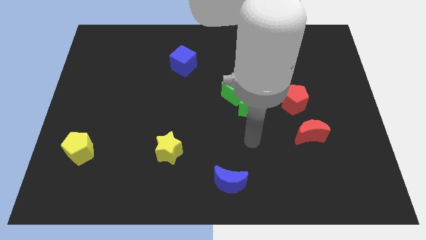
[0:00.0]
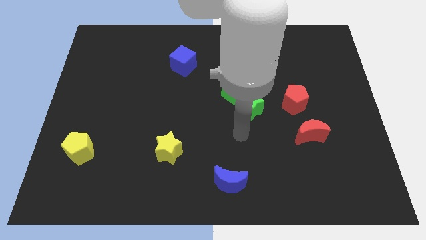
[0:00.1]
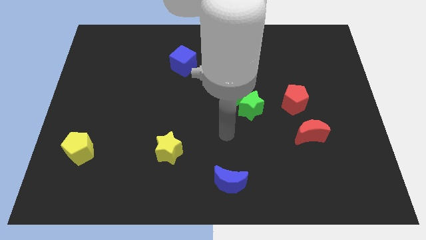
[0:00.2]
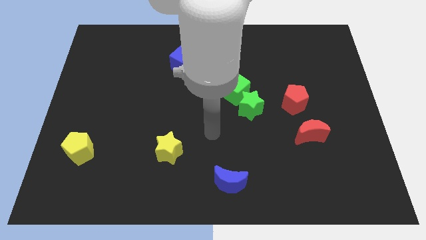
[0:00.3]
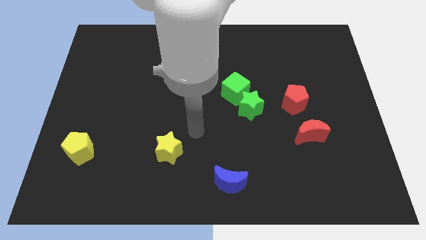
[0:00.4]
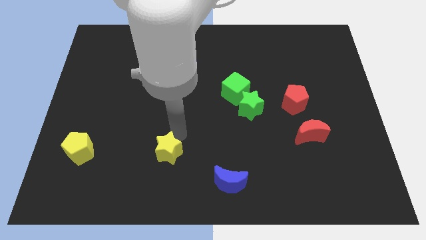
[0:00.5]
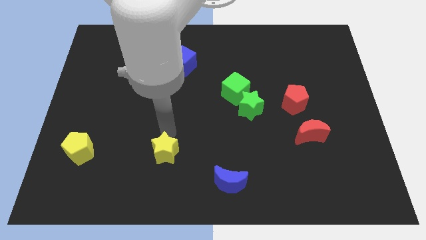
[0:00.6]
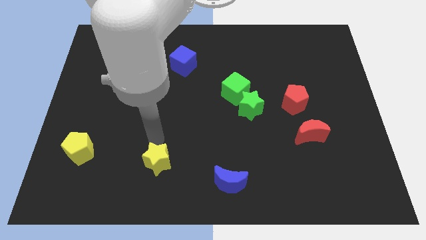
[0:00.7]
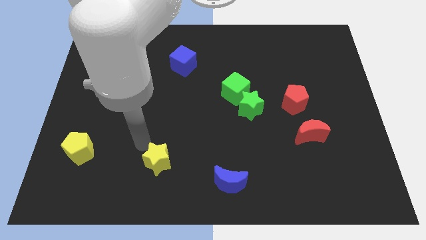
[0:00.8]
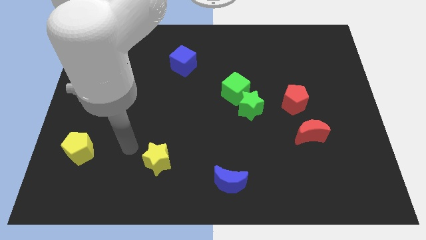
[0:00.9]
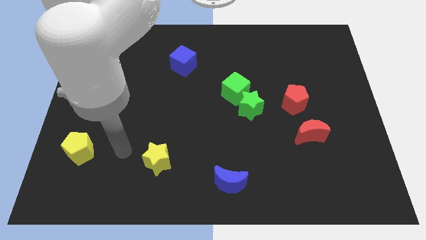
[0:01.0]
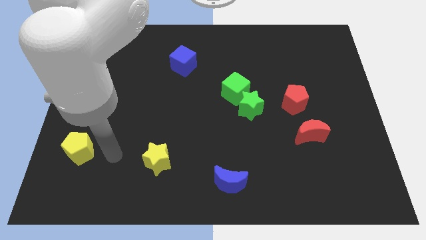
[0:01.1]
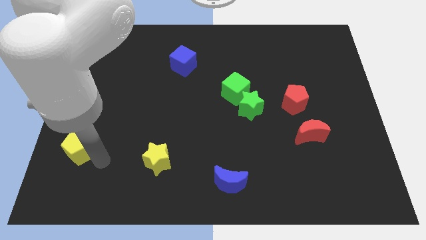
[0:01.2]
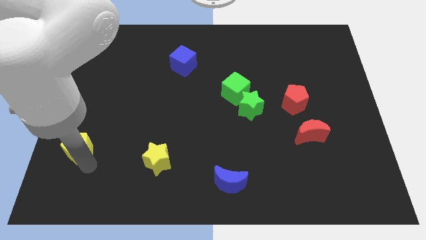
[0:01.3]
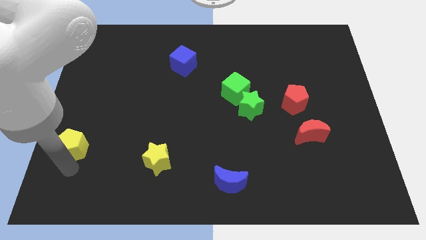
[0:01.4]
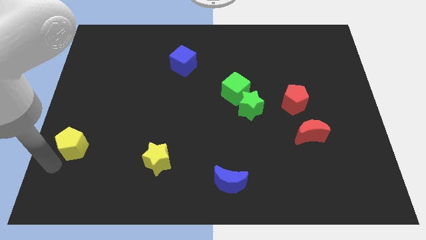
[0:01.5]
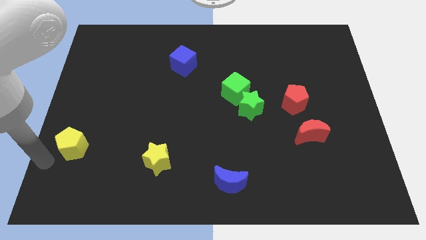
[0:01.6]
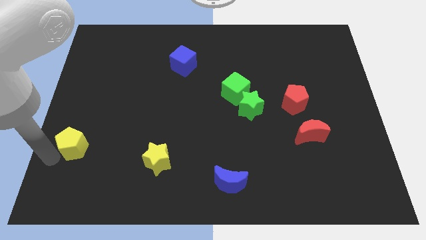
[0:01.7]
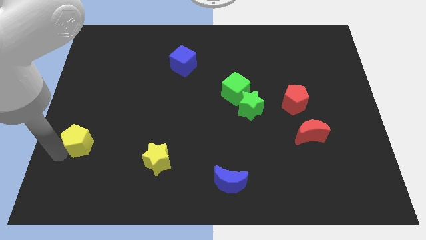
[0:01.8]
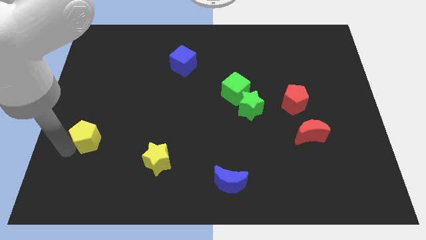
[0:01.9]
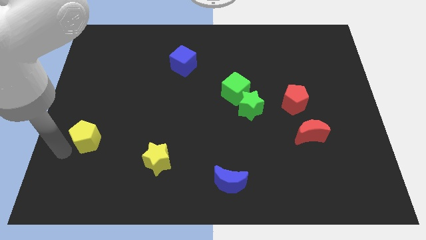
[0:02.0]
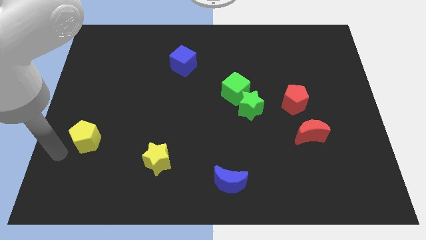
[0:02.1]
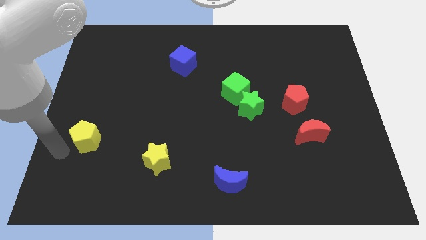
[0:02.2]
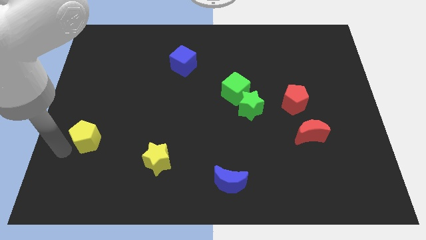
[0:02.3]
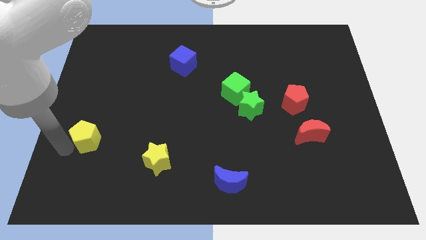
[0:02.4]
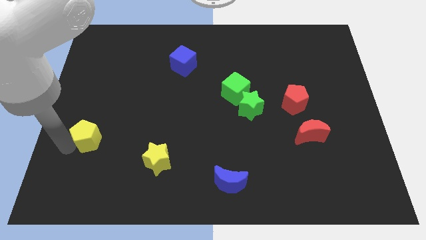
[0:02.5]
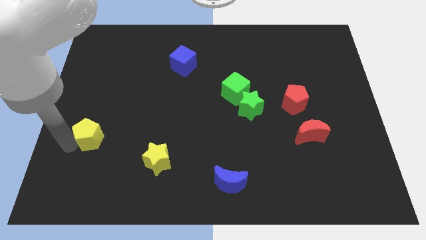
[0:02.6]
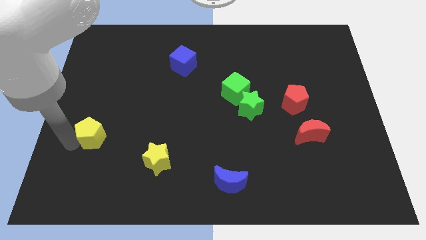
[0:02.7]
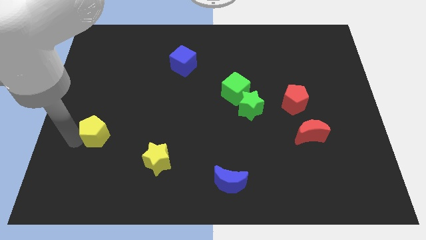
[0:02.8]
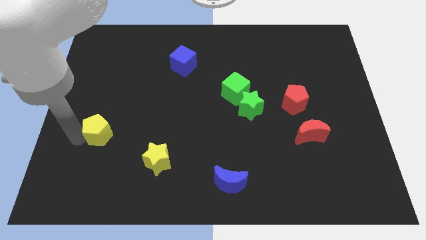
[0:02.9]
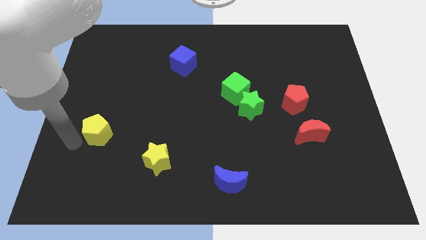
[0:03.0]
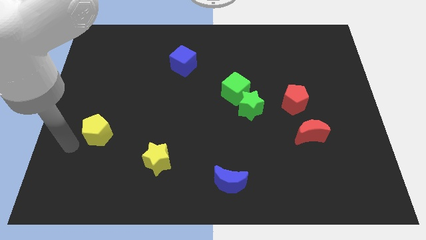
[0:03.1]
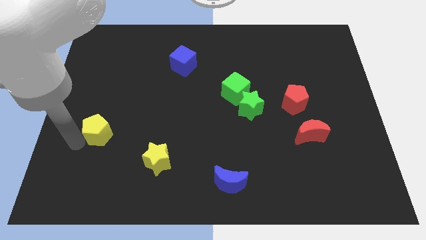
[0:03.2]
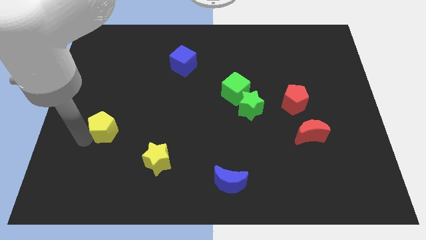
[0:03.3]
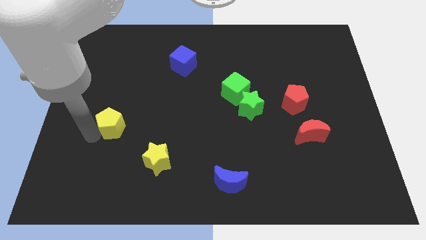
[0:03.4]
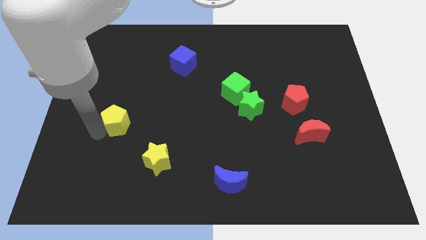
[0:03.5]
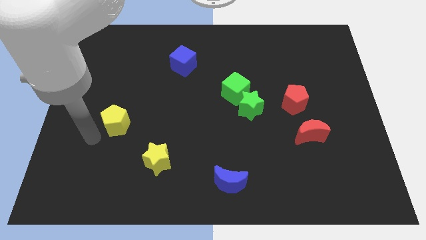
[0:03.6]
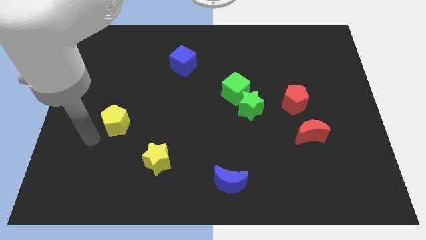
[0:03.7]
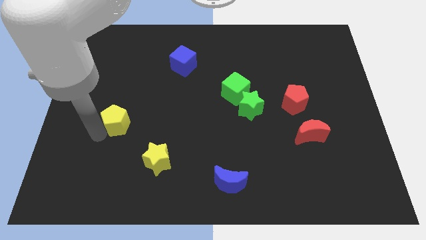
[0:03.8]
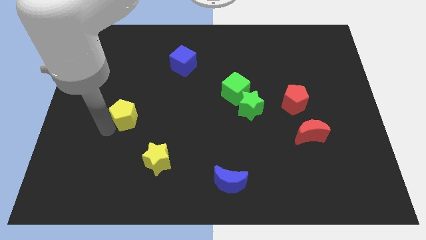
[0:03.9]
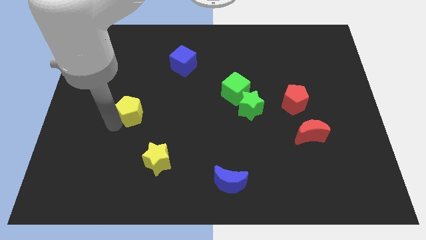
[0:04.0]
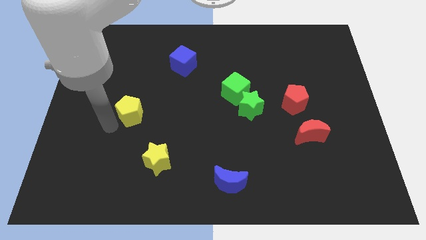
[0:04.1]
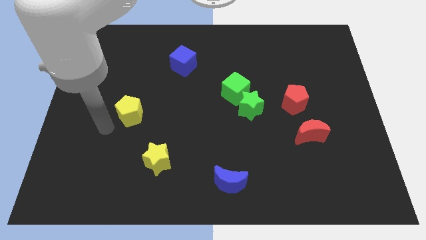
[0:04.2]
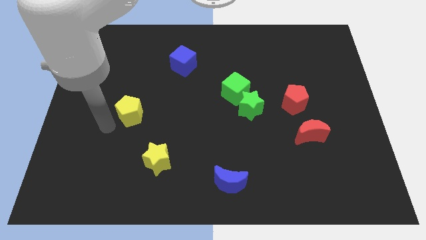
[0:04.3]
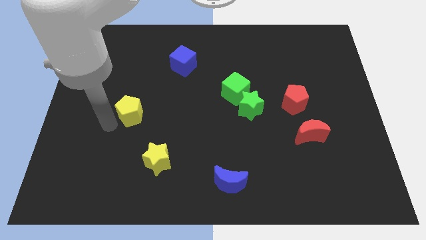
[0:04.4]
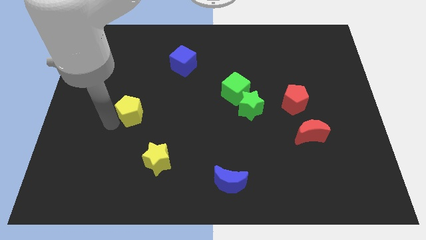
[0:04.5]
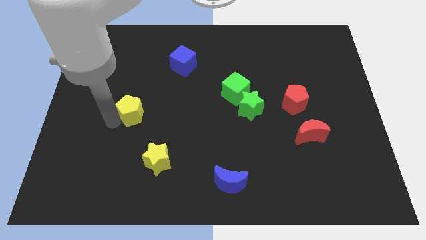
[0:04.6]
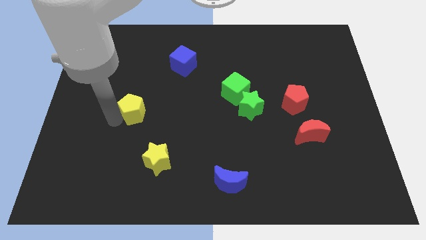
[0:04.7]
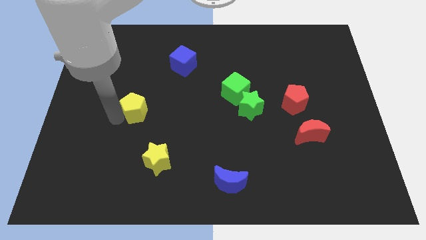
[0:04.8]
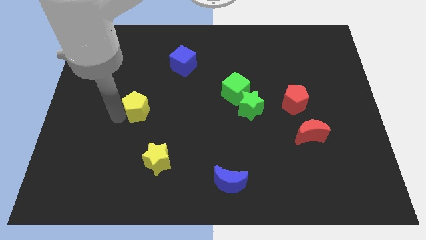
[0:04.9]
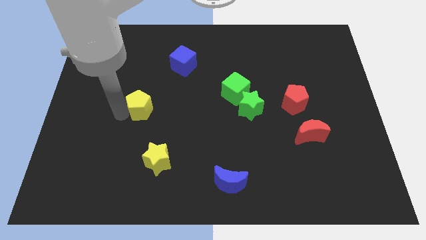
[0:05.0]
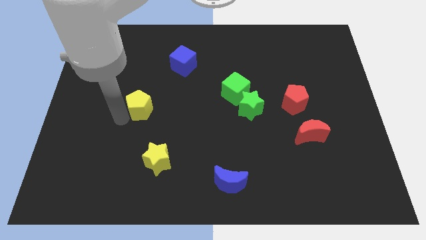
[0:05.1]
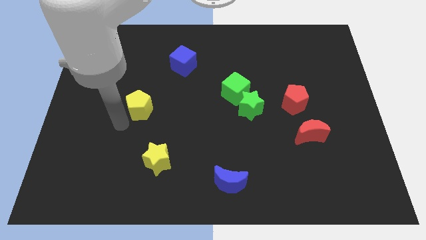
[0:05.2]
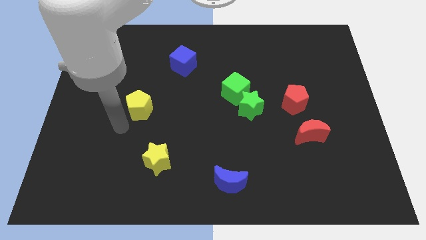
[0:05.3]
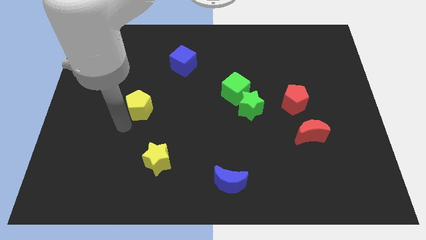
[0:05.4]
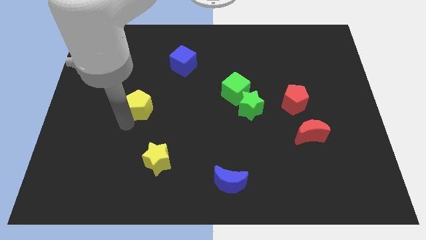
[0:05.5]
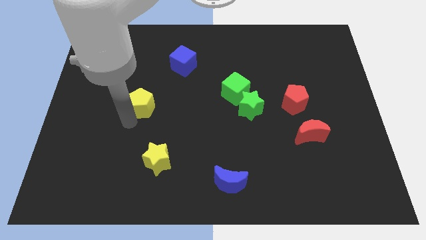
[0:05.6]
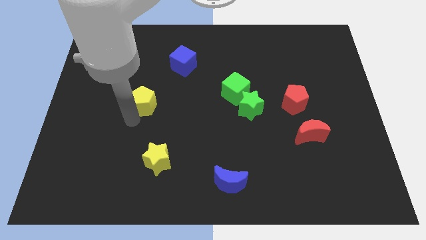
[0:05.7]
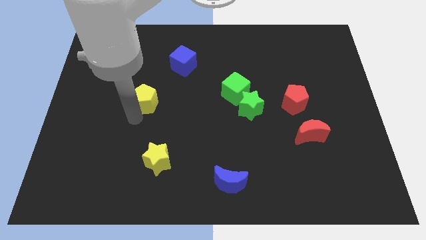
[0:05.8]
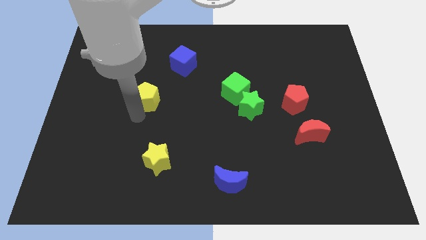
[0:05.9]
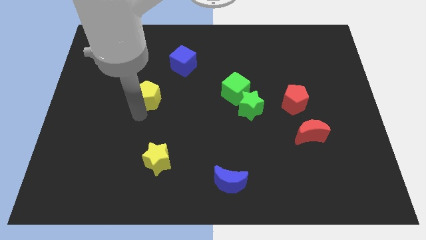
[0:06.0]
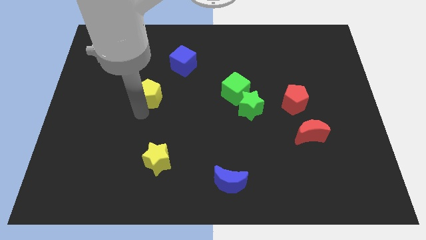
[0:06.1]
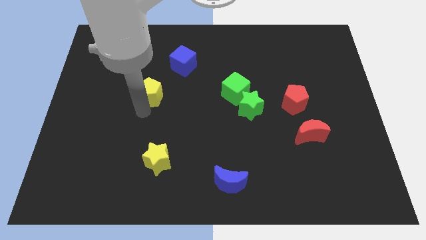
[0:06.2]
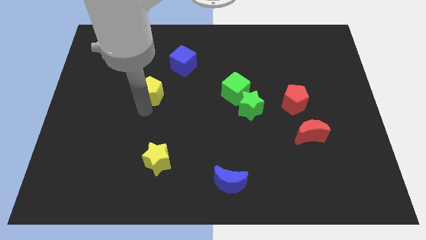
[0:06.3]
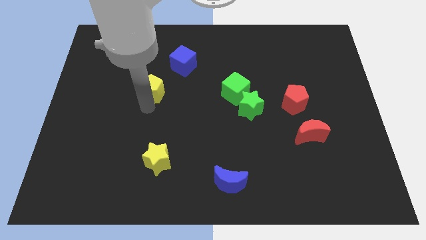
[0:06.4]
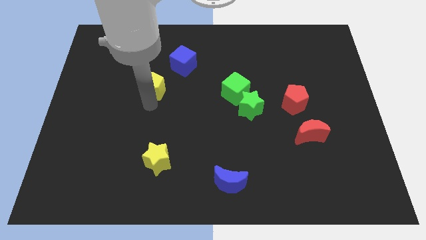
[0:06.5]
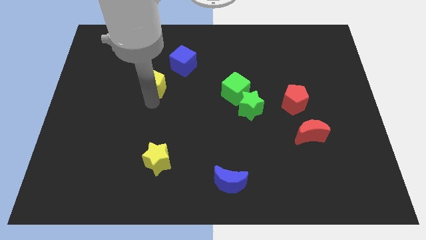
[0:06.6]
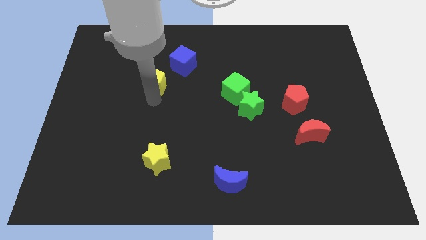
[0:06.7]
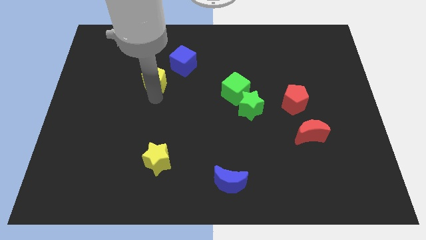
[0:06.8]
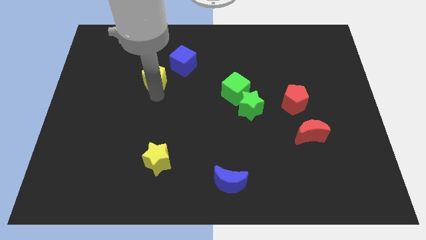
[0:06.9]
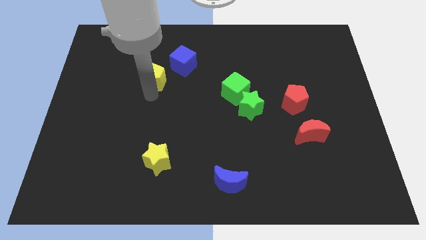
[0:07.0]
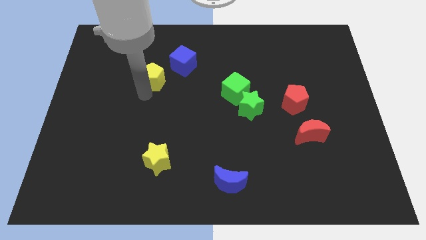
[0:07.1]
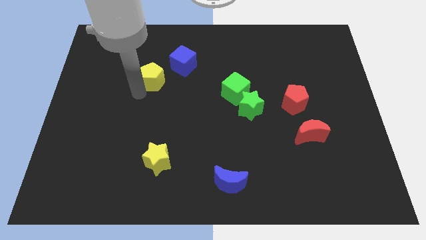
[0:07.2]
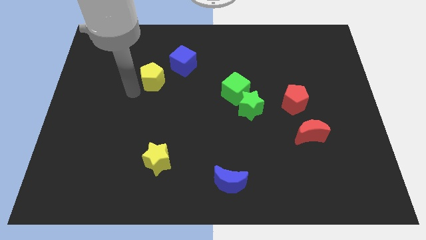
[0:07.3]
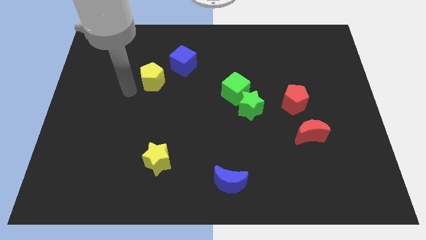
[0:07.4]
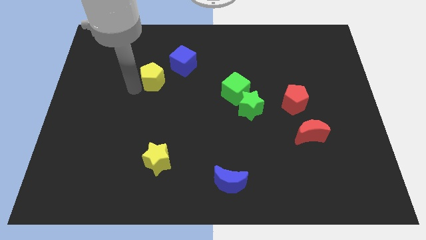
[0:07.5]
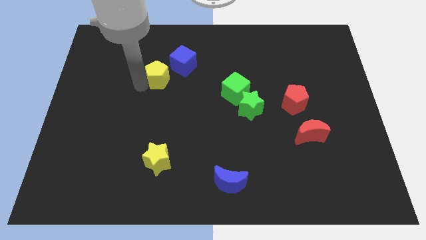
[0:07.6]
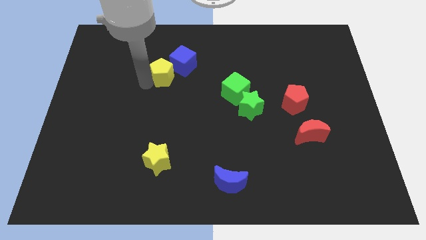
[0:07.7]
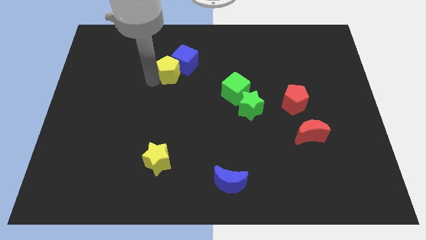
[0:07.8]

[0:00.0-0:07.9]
slide the yellow pentagon close to the blue cube

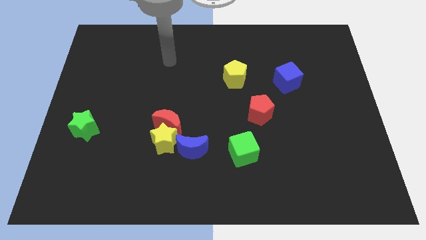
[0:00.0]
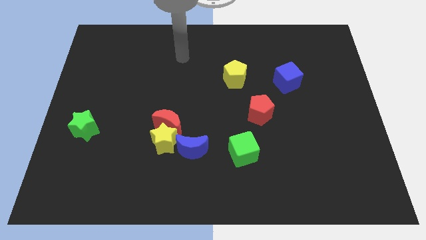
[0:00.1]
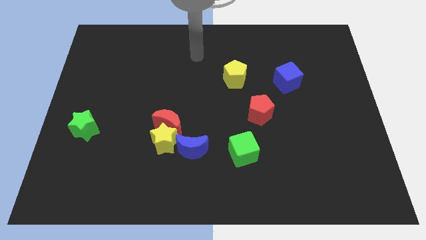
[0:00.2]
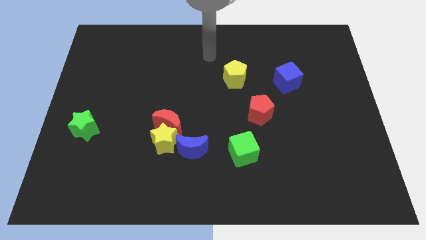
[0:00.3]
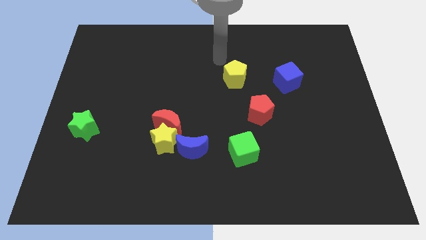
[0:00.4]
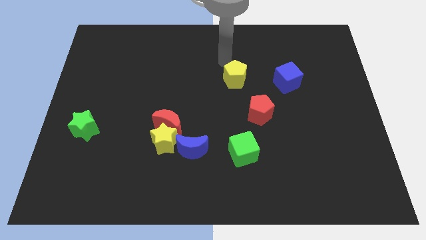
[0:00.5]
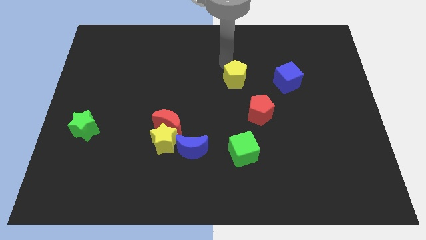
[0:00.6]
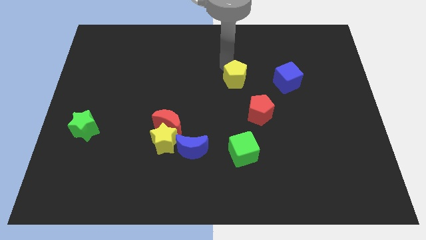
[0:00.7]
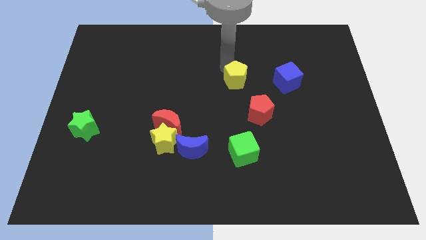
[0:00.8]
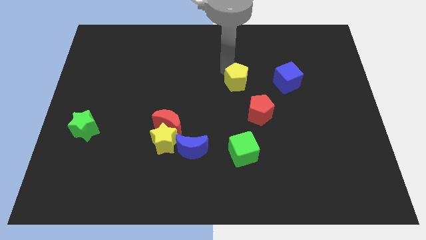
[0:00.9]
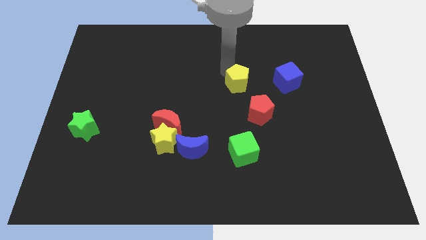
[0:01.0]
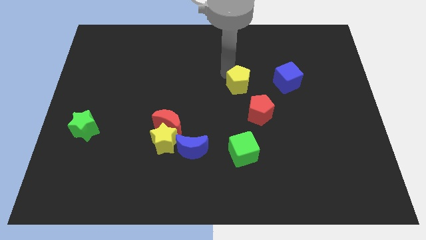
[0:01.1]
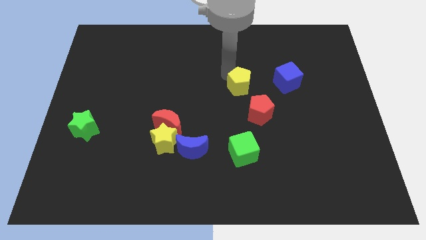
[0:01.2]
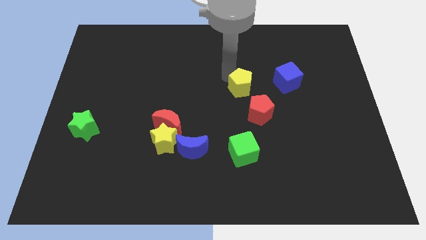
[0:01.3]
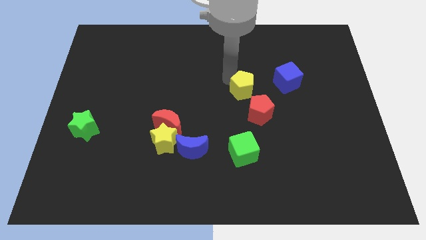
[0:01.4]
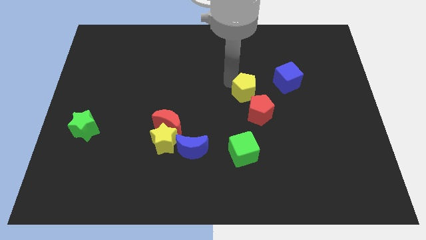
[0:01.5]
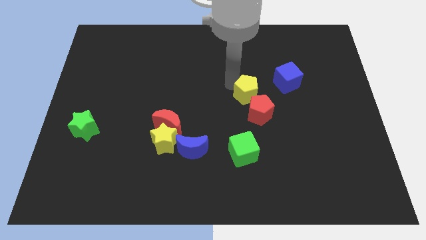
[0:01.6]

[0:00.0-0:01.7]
slide the yellow pentagon next to the red pentagon
